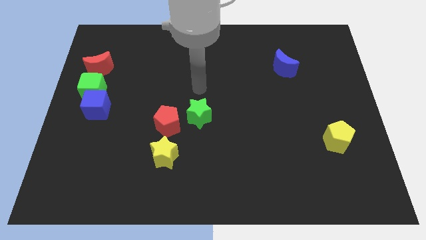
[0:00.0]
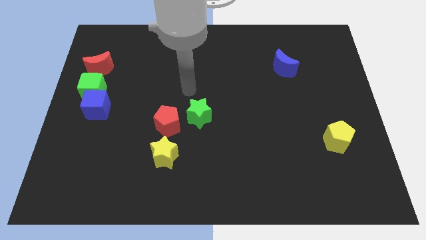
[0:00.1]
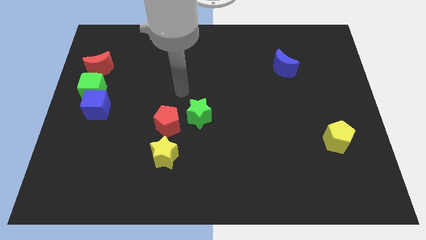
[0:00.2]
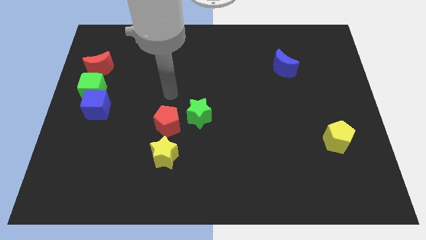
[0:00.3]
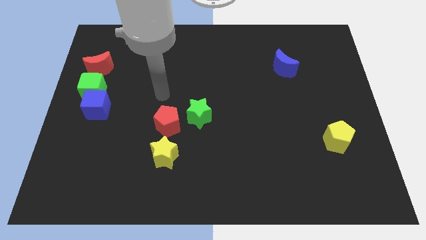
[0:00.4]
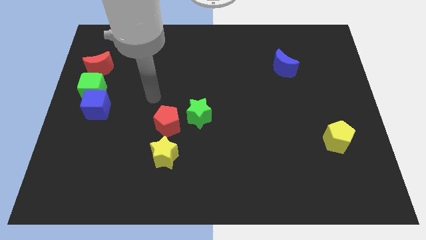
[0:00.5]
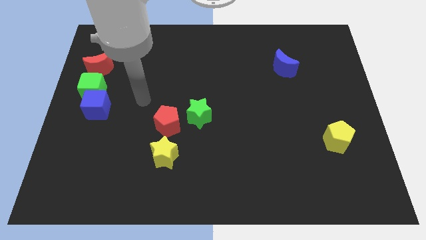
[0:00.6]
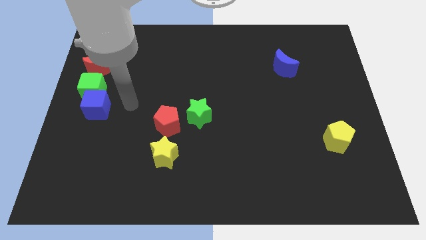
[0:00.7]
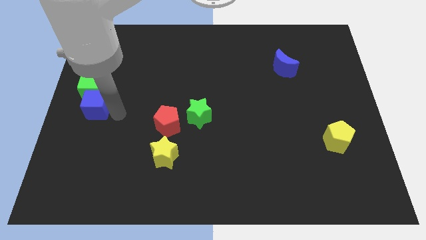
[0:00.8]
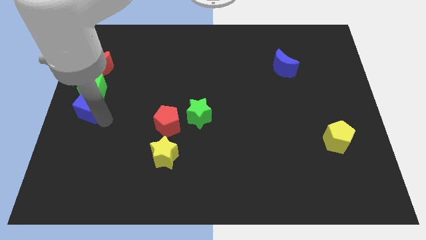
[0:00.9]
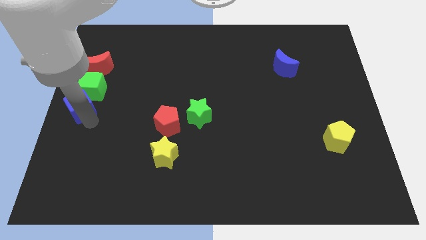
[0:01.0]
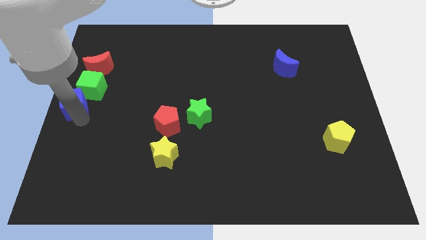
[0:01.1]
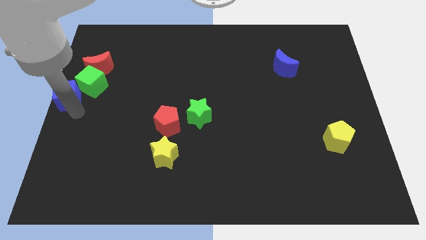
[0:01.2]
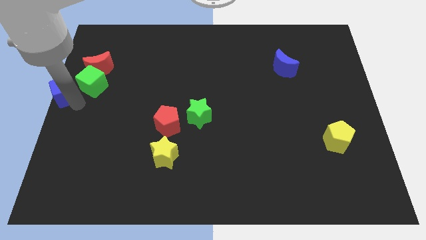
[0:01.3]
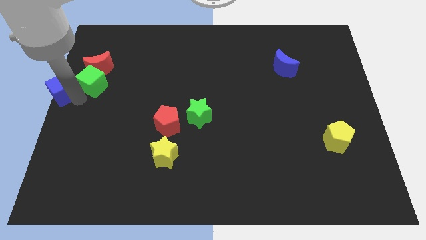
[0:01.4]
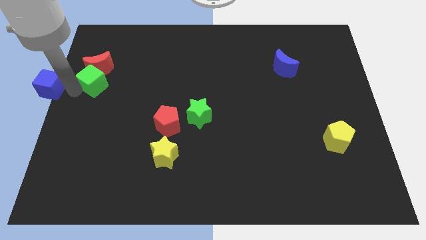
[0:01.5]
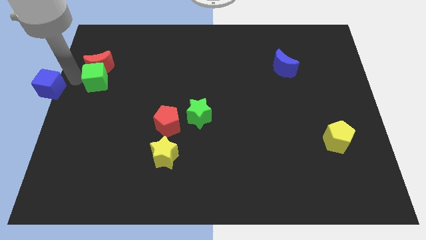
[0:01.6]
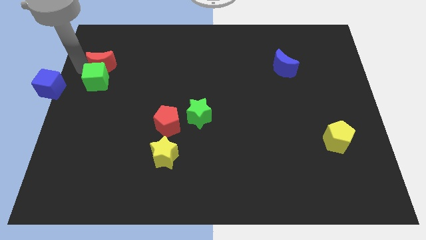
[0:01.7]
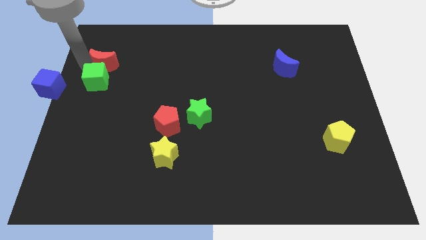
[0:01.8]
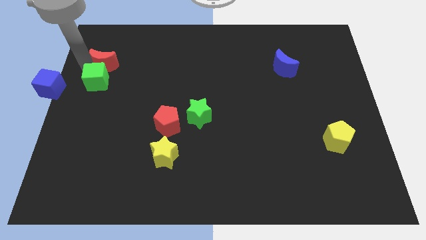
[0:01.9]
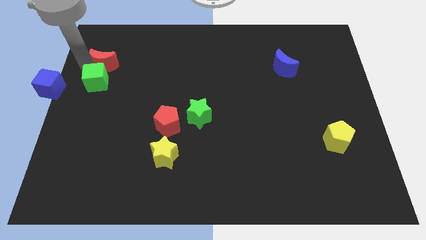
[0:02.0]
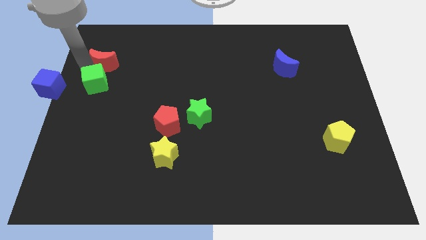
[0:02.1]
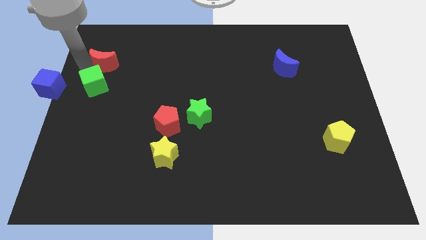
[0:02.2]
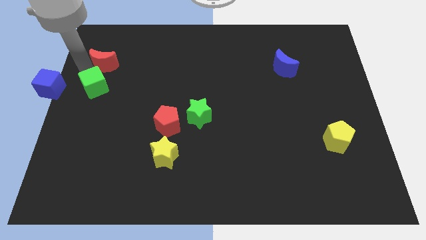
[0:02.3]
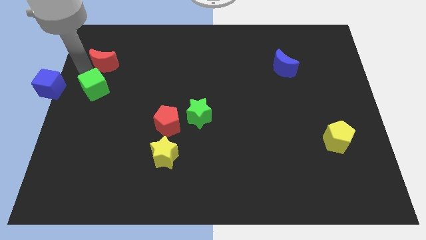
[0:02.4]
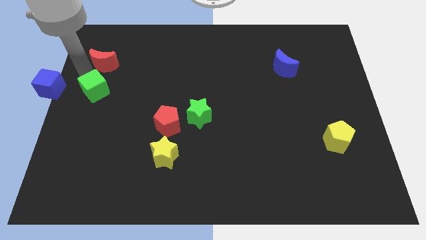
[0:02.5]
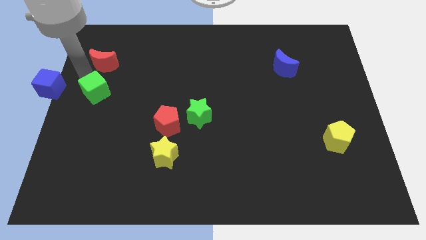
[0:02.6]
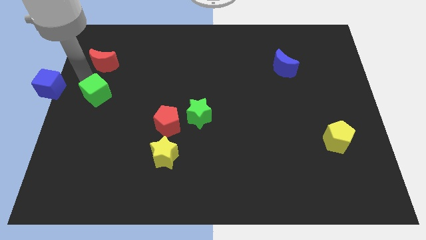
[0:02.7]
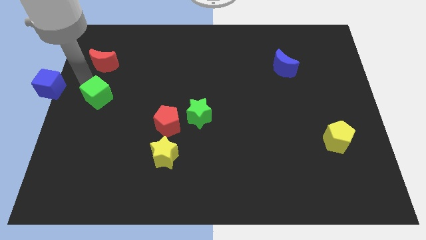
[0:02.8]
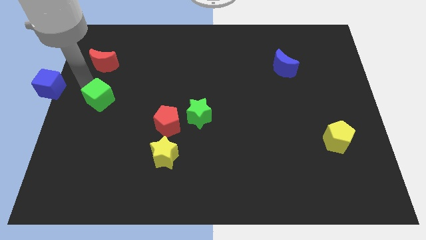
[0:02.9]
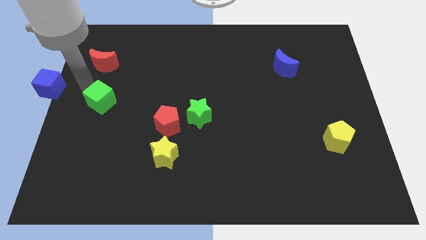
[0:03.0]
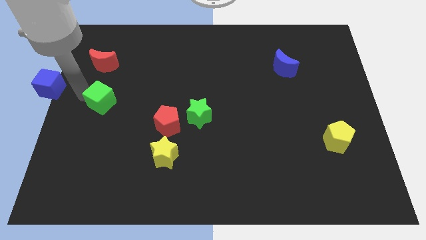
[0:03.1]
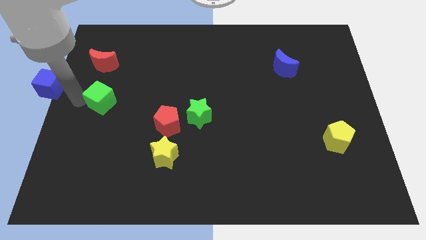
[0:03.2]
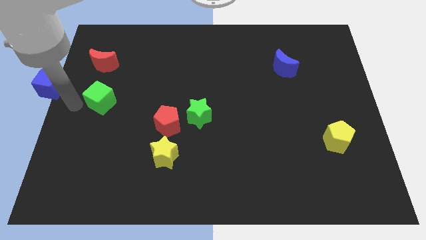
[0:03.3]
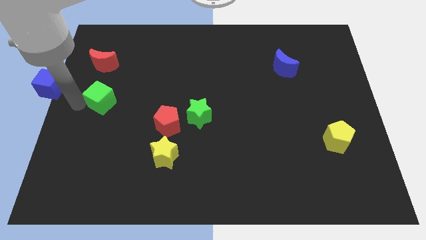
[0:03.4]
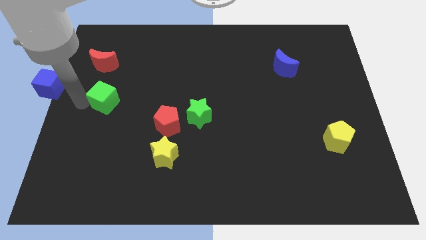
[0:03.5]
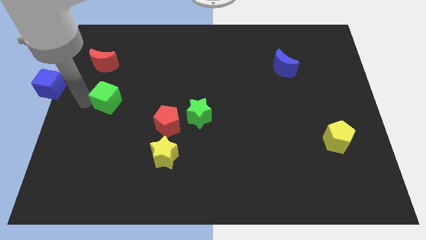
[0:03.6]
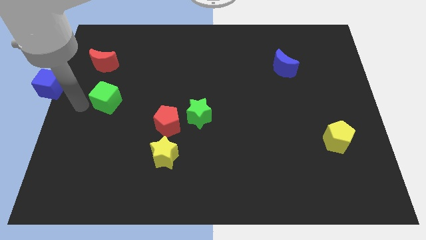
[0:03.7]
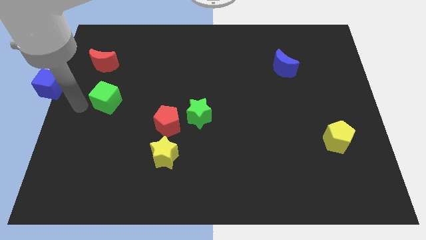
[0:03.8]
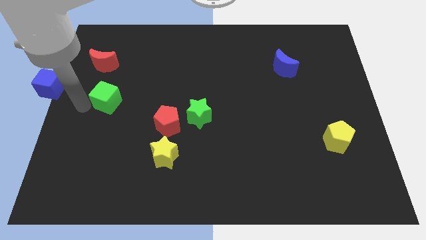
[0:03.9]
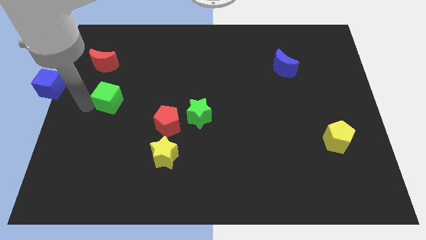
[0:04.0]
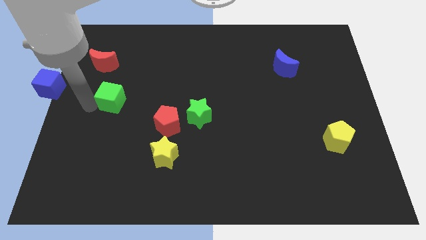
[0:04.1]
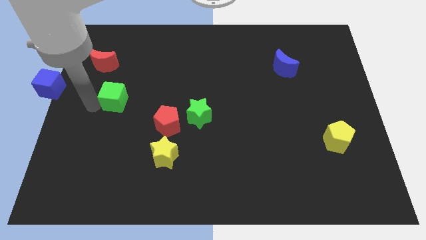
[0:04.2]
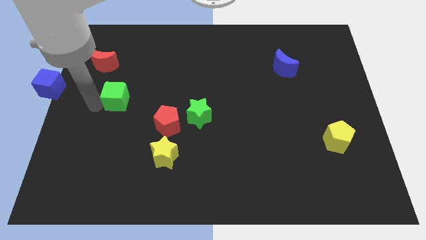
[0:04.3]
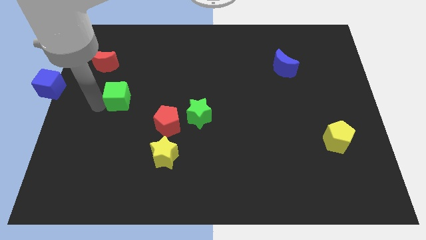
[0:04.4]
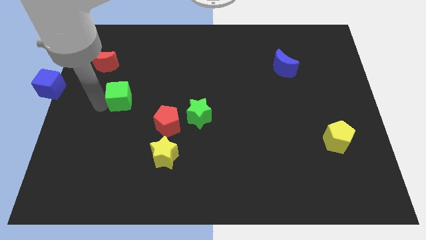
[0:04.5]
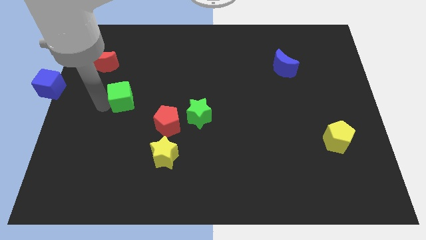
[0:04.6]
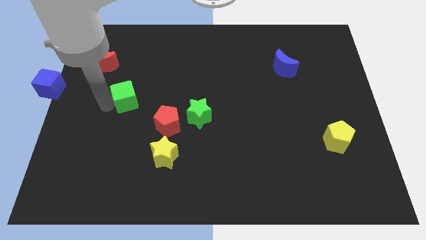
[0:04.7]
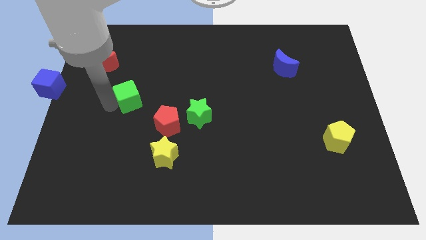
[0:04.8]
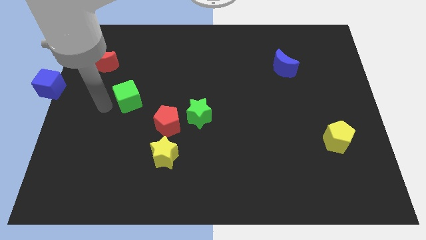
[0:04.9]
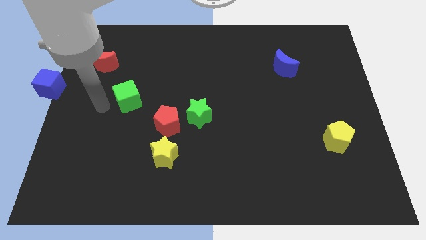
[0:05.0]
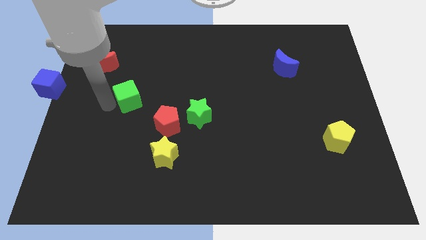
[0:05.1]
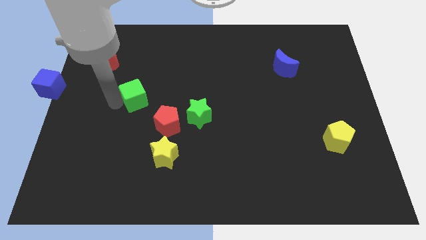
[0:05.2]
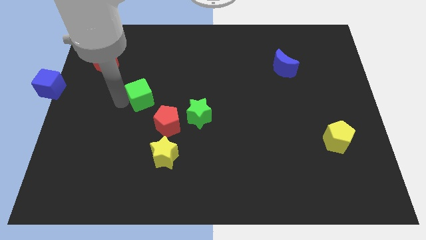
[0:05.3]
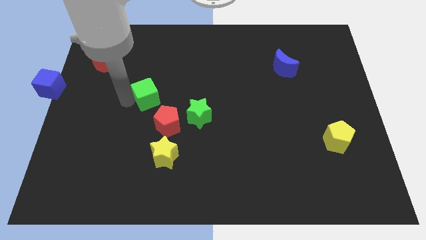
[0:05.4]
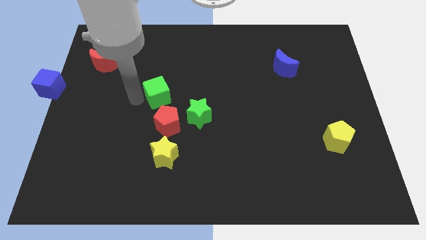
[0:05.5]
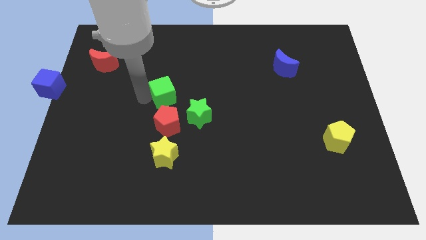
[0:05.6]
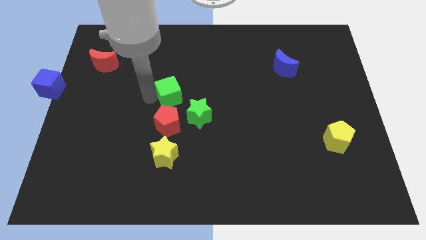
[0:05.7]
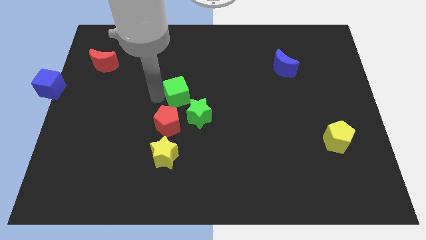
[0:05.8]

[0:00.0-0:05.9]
slide the green cube to the right

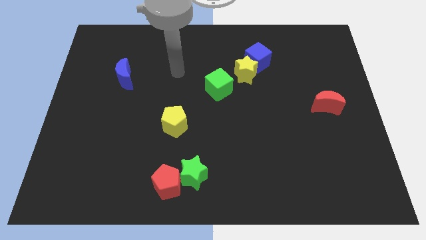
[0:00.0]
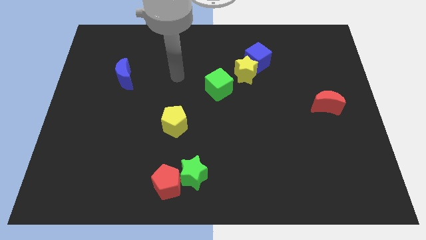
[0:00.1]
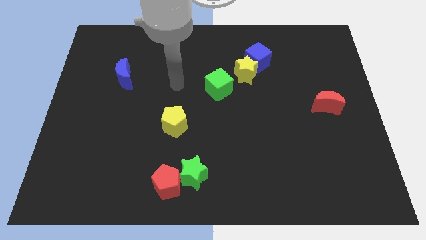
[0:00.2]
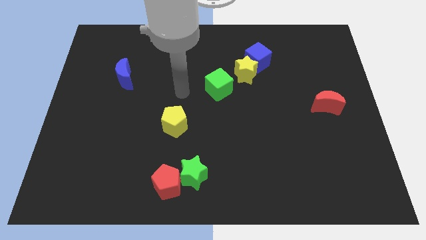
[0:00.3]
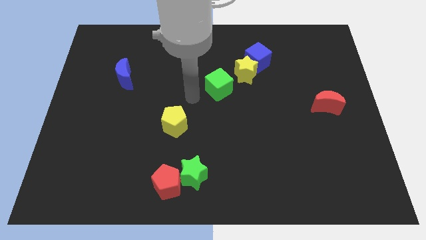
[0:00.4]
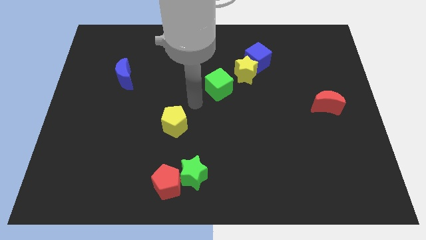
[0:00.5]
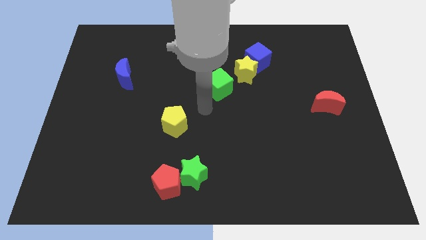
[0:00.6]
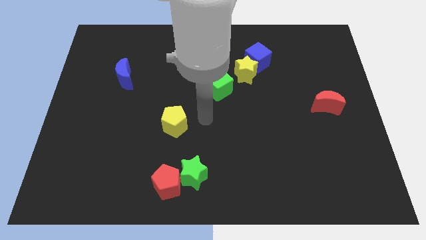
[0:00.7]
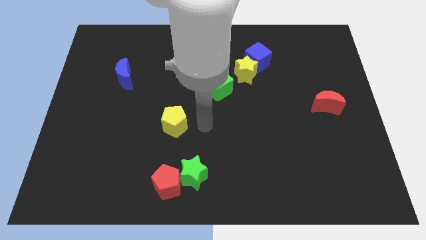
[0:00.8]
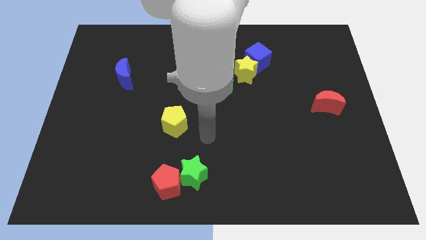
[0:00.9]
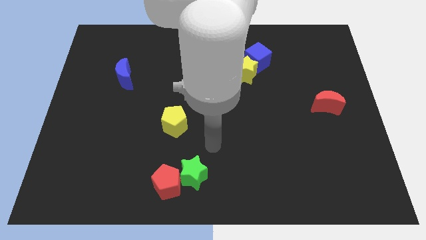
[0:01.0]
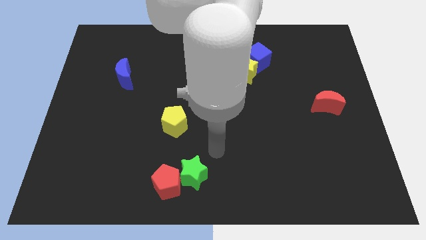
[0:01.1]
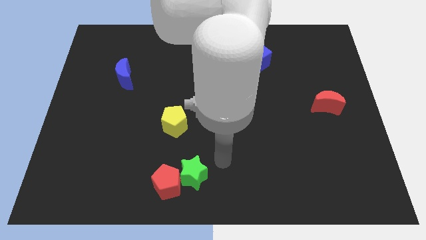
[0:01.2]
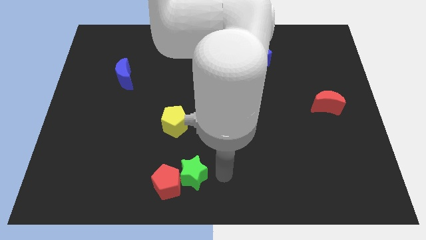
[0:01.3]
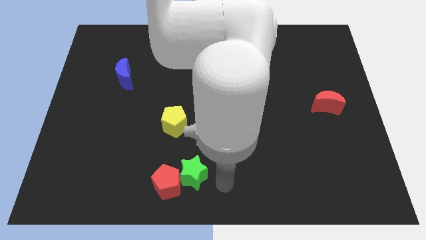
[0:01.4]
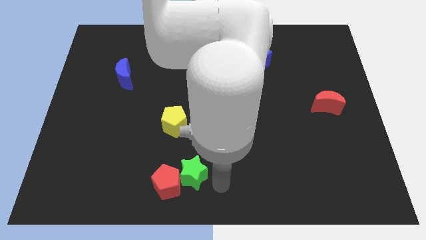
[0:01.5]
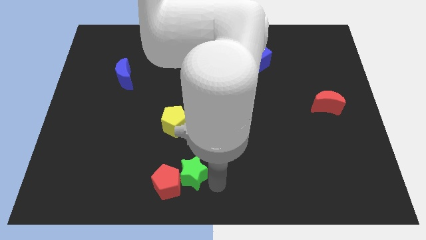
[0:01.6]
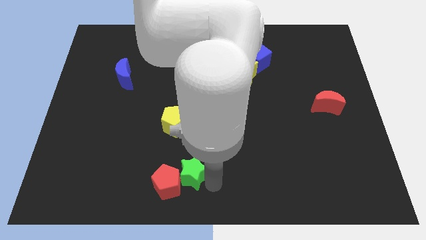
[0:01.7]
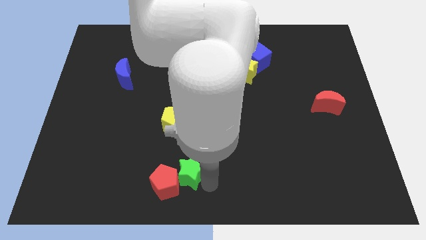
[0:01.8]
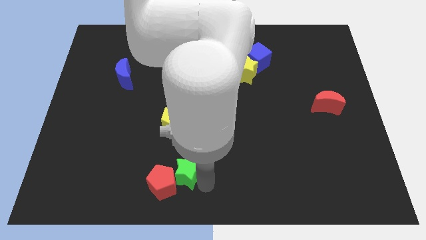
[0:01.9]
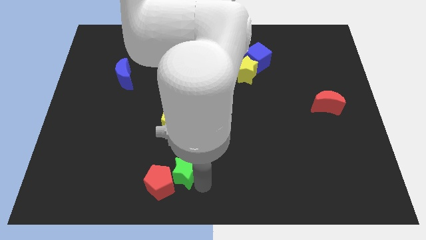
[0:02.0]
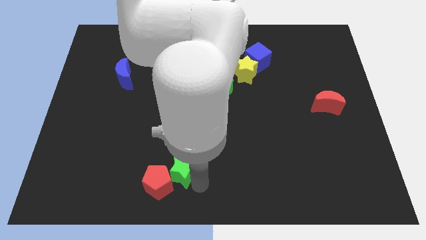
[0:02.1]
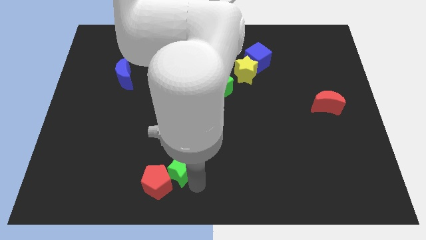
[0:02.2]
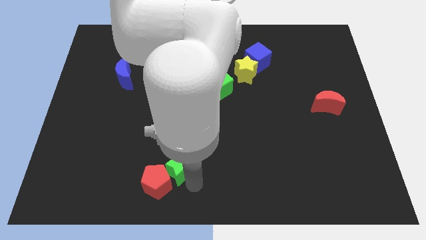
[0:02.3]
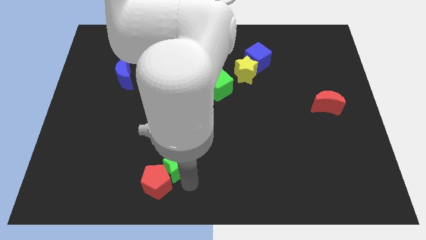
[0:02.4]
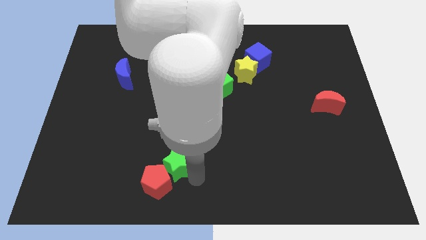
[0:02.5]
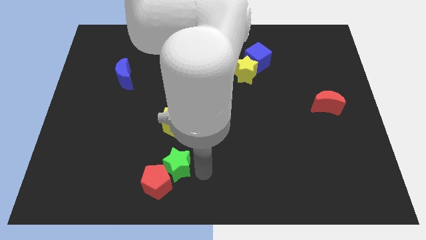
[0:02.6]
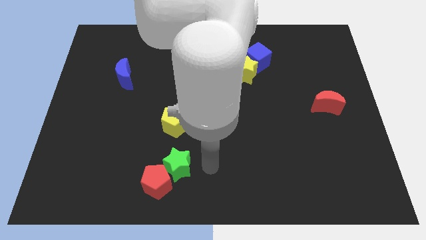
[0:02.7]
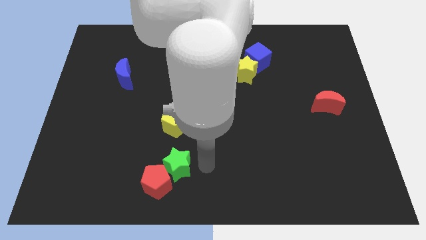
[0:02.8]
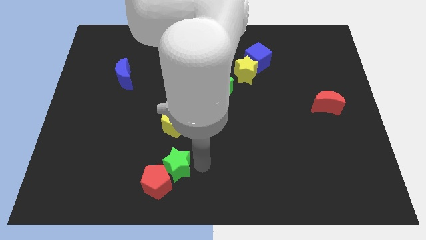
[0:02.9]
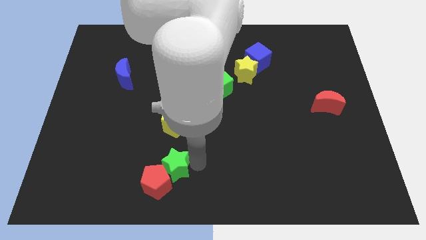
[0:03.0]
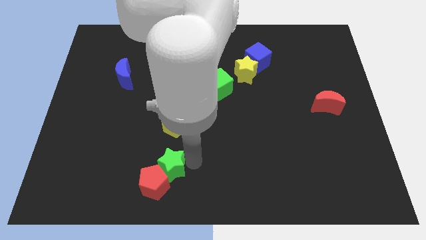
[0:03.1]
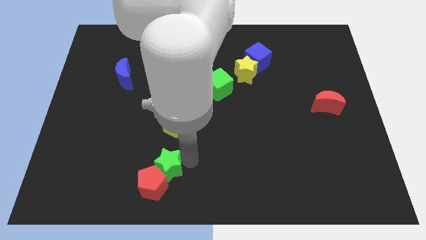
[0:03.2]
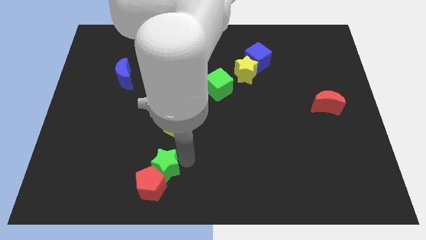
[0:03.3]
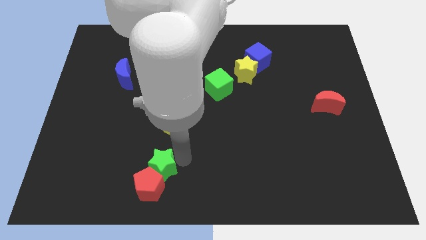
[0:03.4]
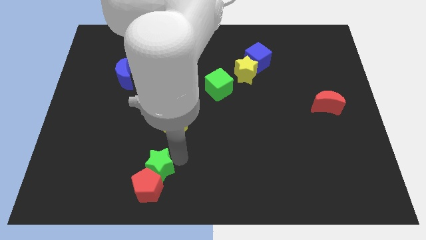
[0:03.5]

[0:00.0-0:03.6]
slide the green star a bit left
